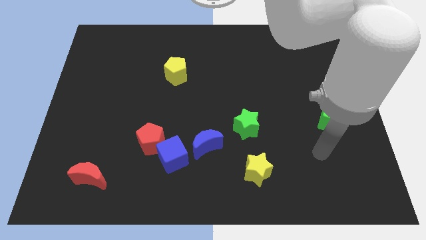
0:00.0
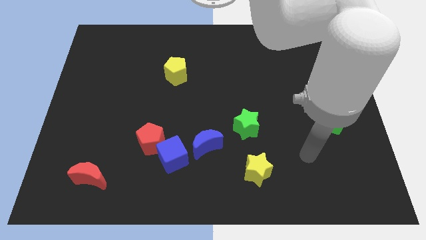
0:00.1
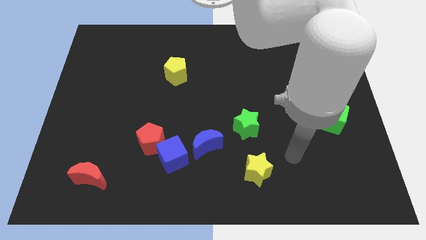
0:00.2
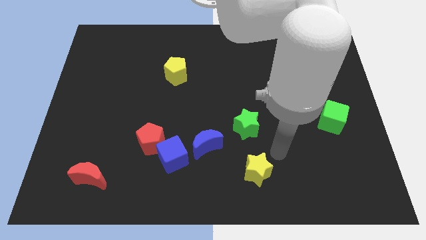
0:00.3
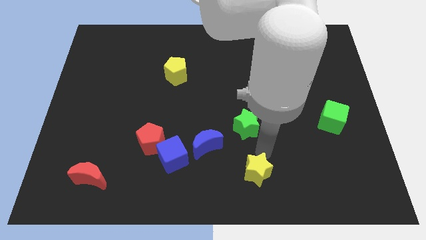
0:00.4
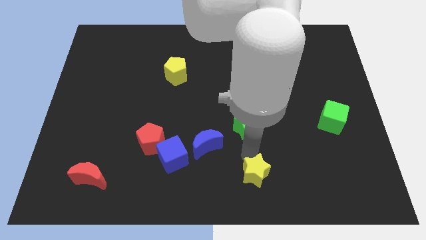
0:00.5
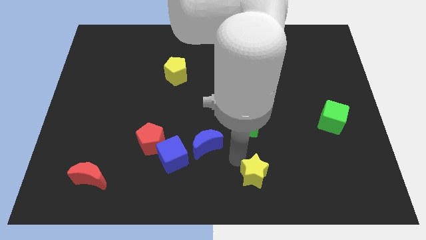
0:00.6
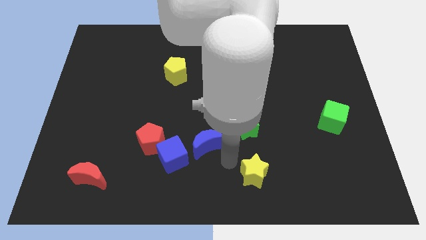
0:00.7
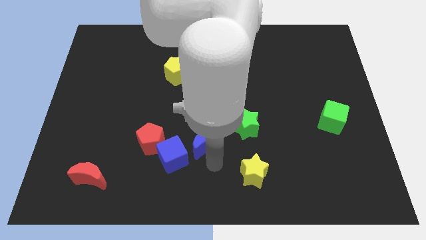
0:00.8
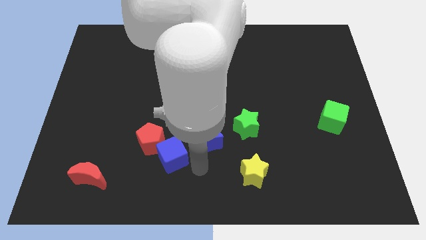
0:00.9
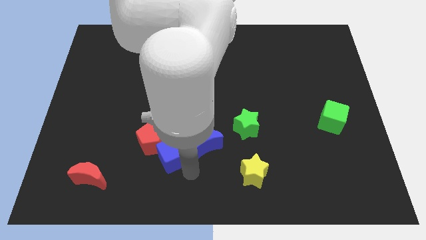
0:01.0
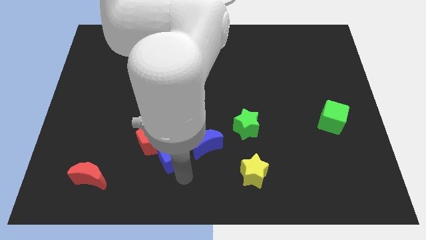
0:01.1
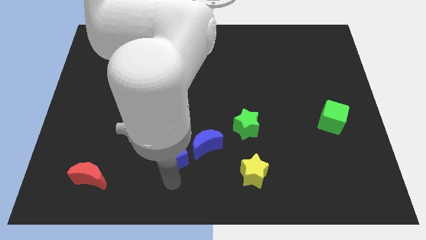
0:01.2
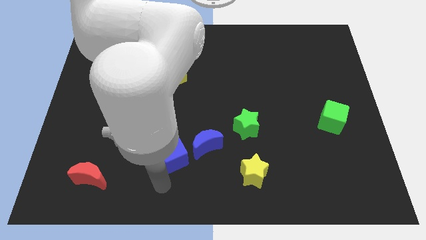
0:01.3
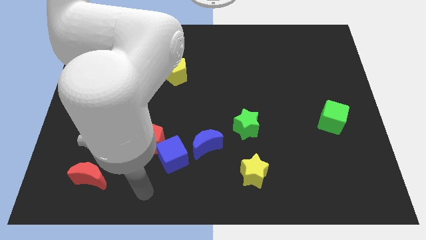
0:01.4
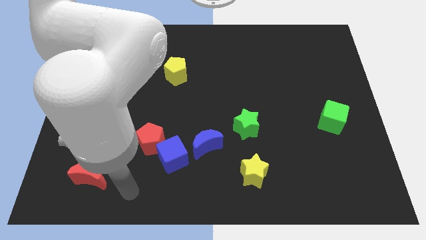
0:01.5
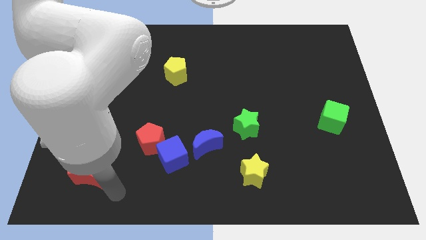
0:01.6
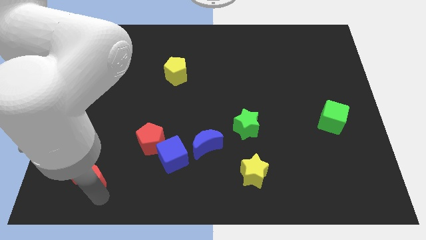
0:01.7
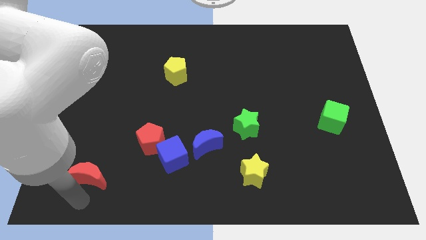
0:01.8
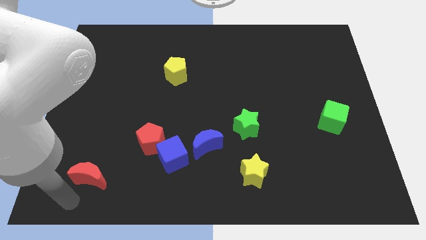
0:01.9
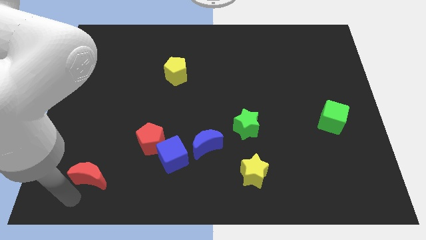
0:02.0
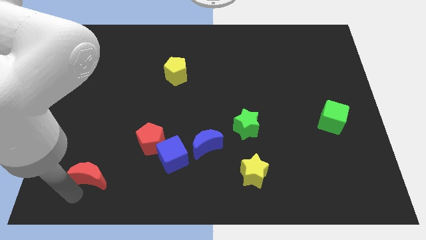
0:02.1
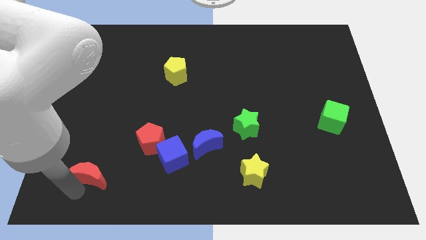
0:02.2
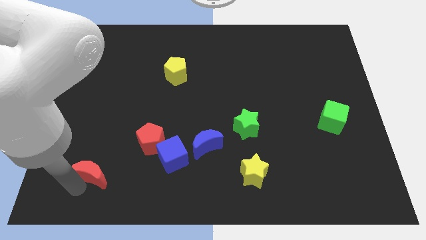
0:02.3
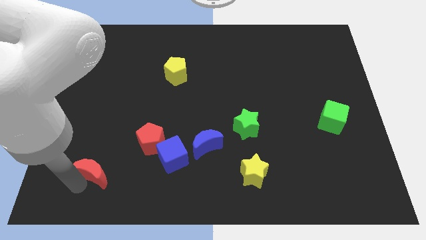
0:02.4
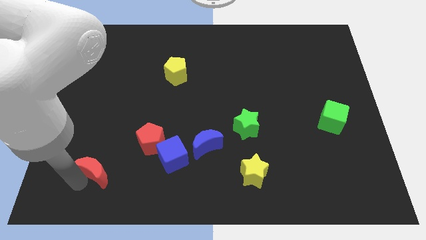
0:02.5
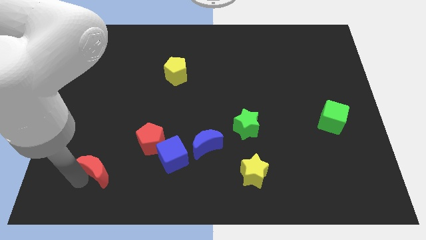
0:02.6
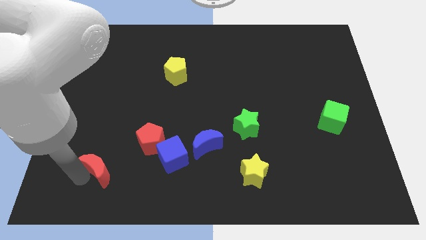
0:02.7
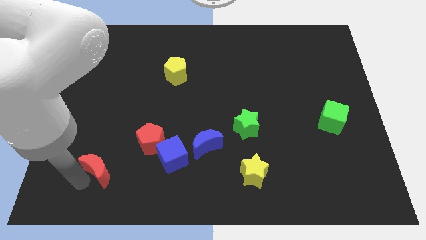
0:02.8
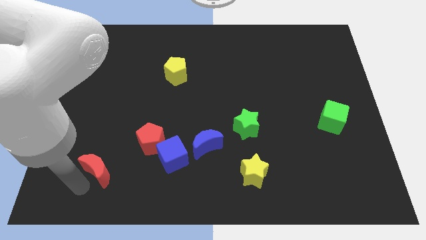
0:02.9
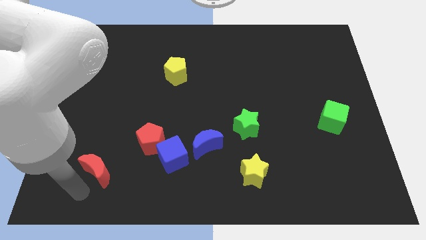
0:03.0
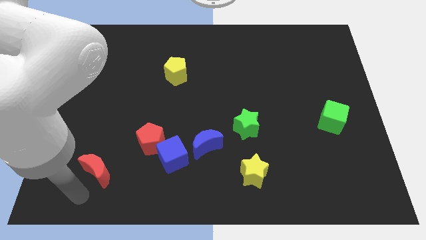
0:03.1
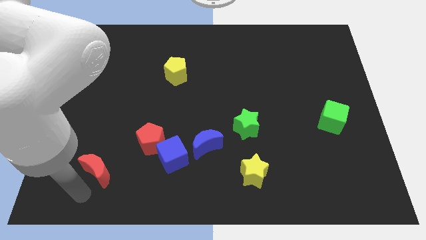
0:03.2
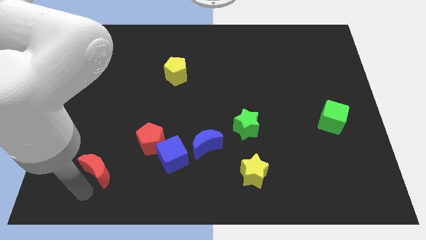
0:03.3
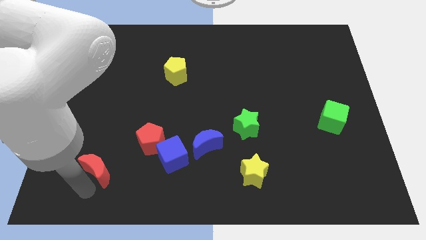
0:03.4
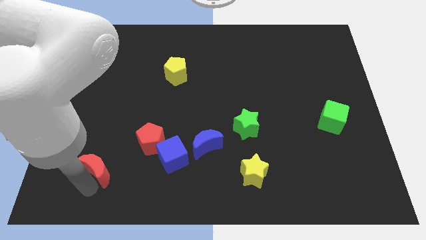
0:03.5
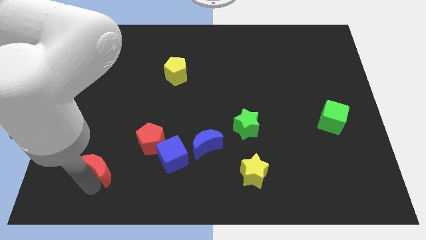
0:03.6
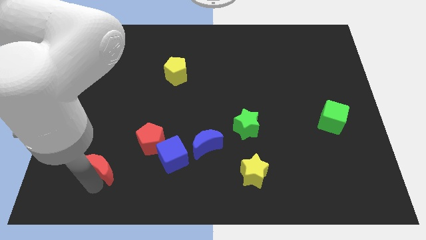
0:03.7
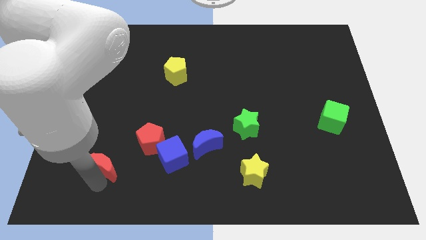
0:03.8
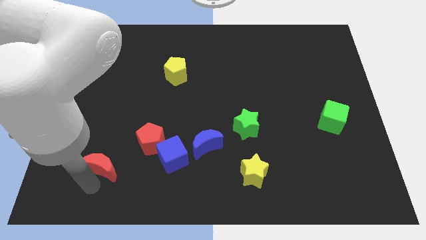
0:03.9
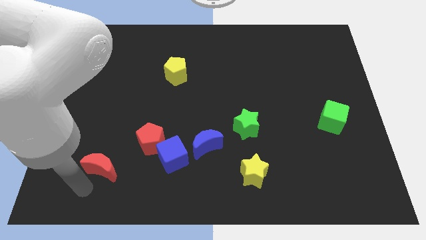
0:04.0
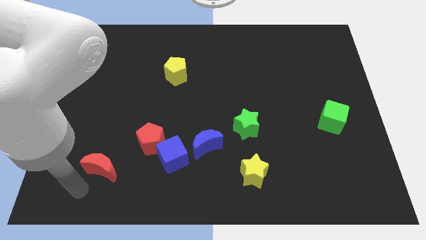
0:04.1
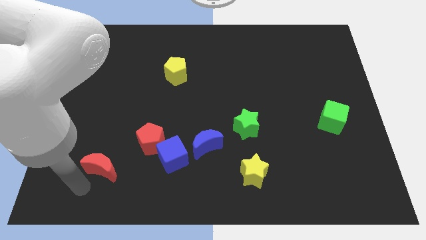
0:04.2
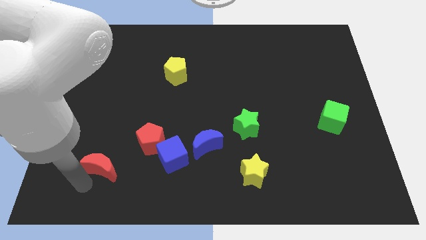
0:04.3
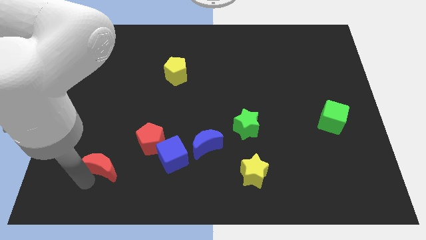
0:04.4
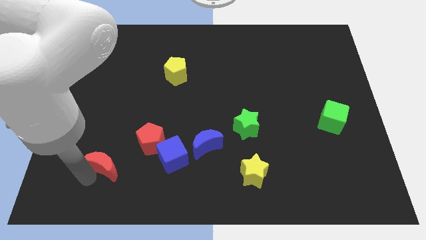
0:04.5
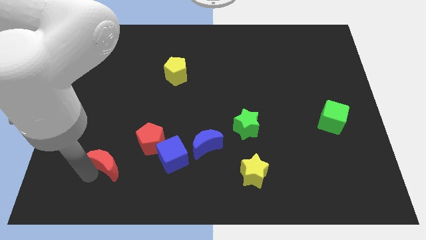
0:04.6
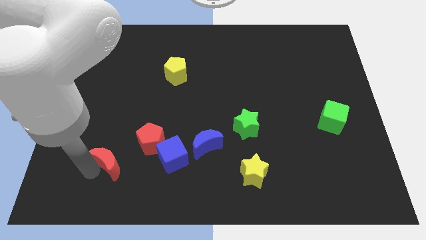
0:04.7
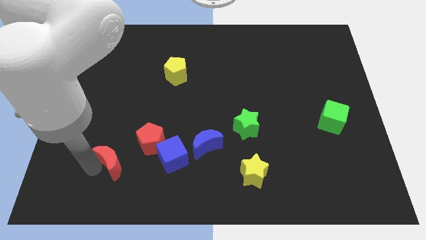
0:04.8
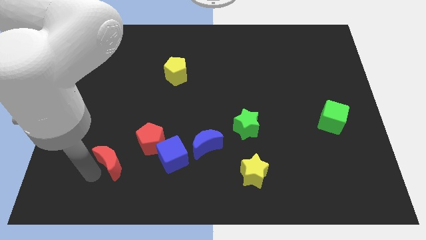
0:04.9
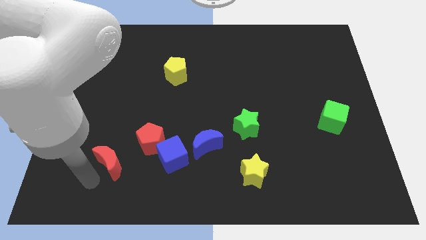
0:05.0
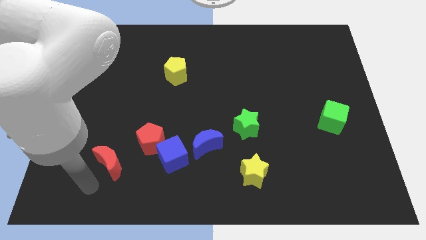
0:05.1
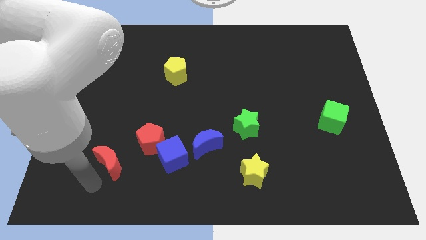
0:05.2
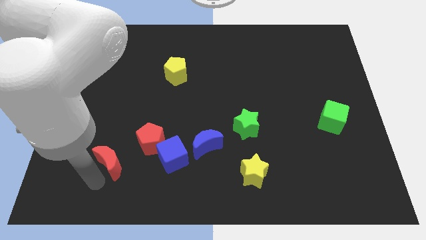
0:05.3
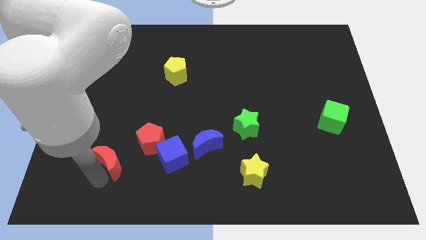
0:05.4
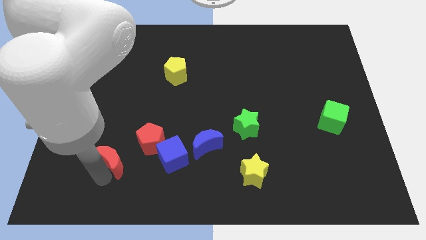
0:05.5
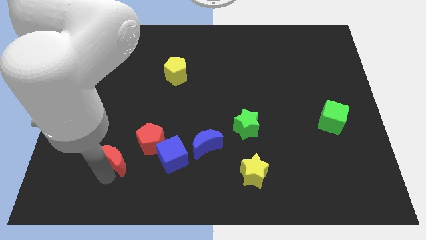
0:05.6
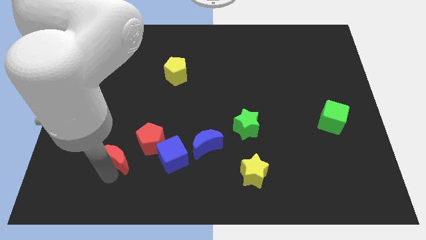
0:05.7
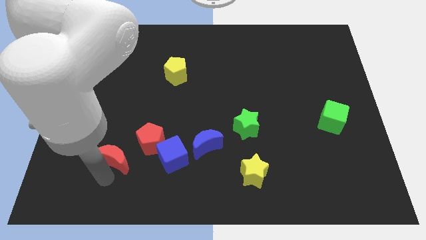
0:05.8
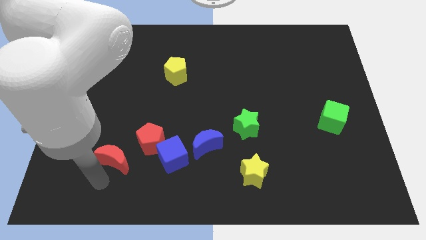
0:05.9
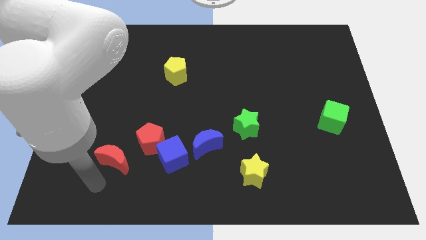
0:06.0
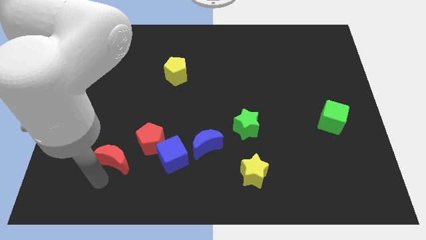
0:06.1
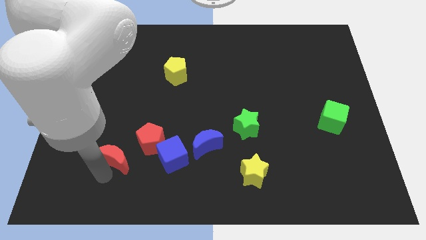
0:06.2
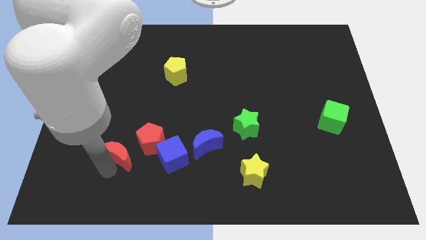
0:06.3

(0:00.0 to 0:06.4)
slightly slide the red moon up and then right

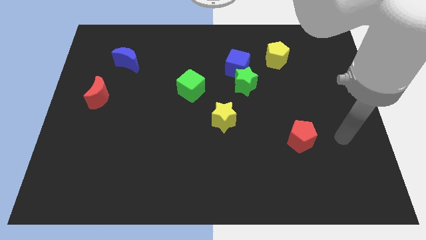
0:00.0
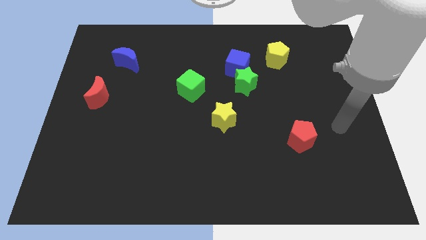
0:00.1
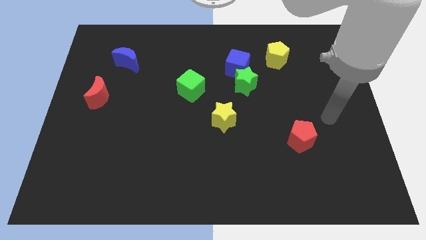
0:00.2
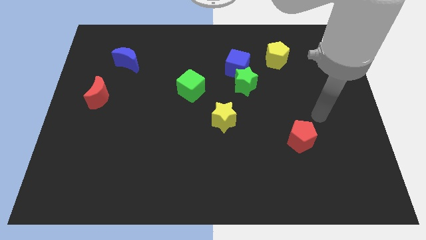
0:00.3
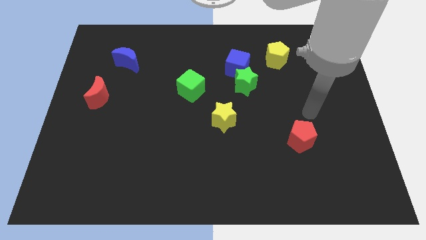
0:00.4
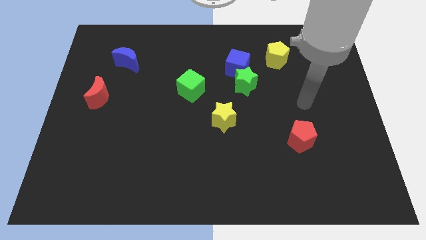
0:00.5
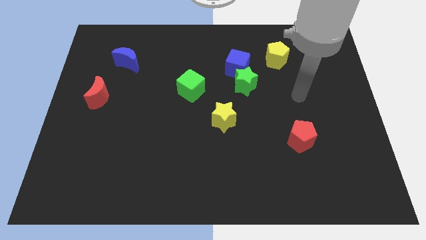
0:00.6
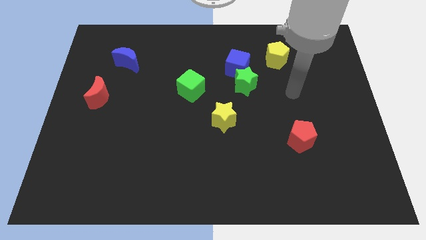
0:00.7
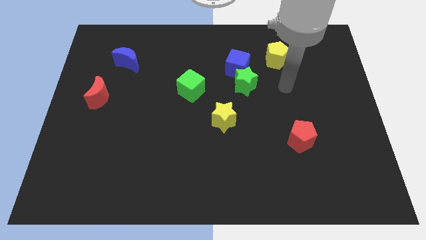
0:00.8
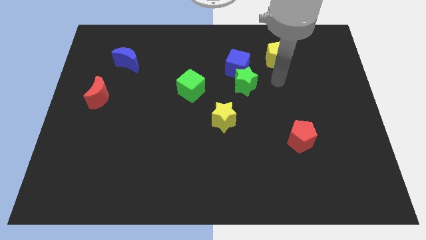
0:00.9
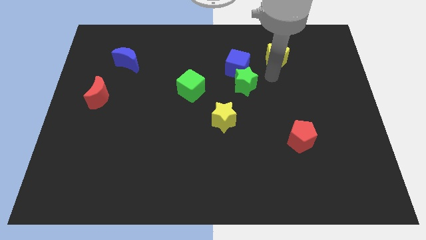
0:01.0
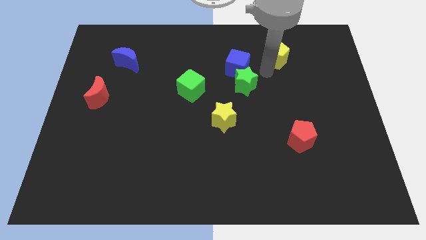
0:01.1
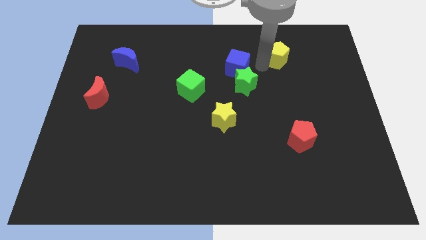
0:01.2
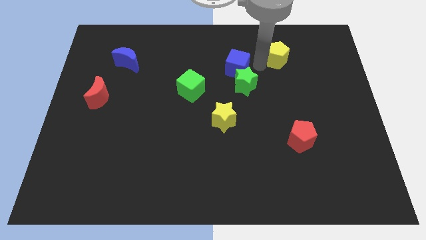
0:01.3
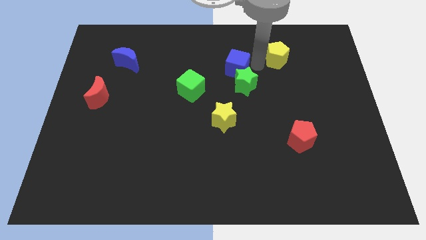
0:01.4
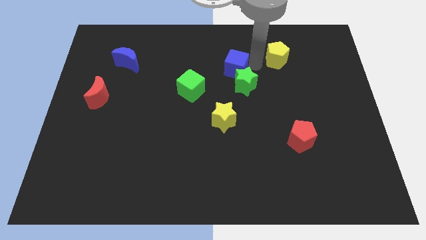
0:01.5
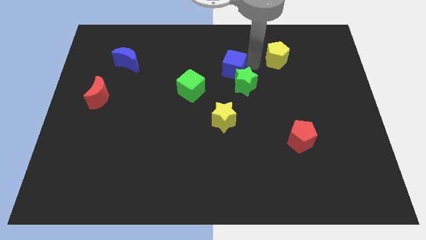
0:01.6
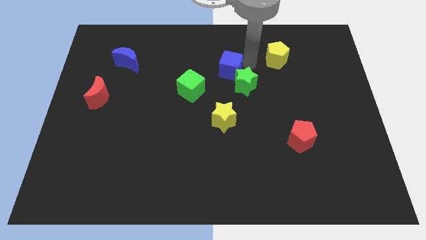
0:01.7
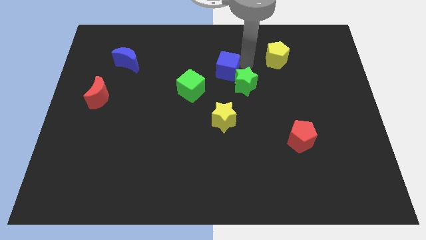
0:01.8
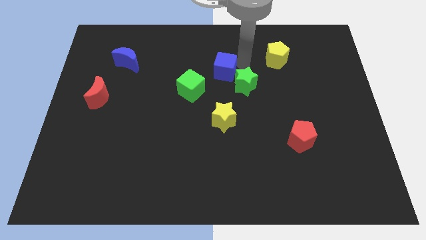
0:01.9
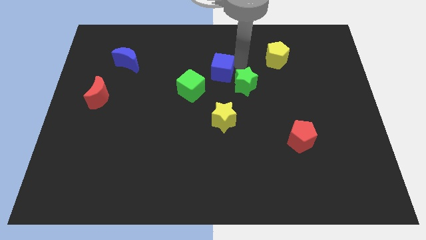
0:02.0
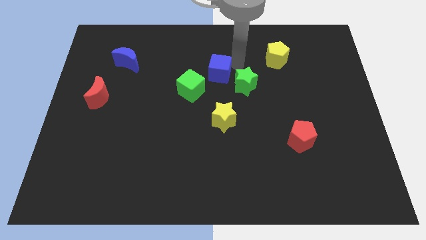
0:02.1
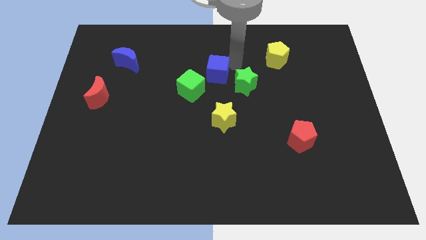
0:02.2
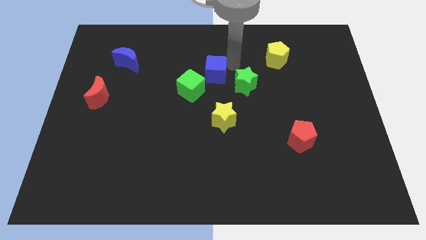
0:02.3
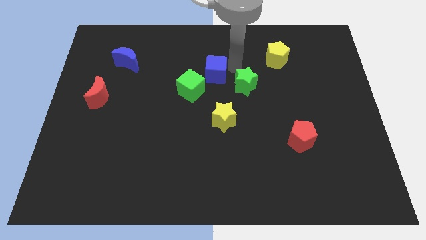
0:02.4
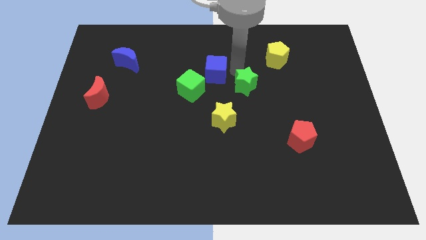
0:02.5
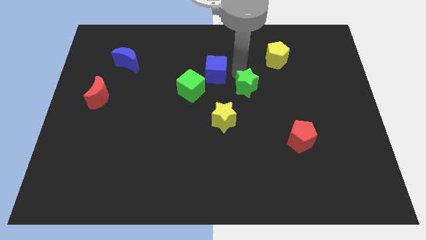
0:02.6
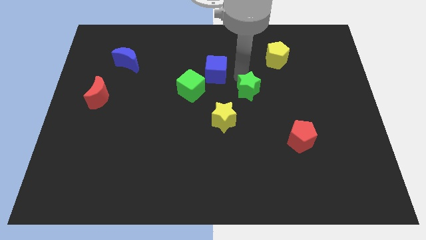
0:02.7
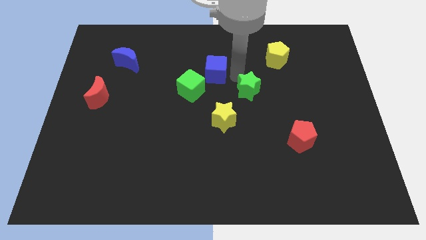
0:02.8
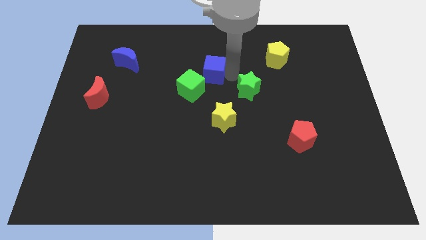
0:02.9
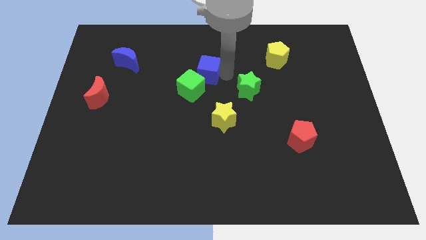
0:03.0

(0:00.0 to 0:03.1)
slightly slide the blue cube left
